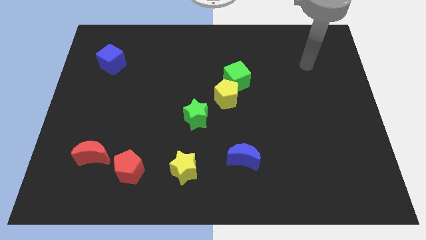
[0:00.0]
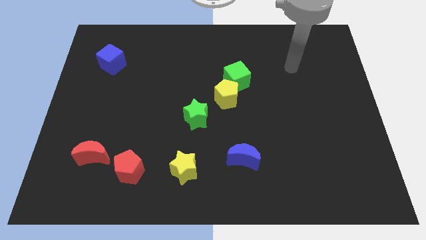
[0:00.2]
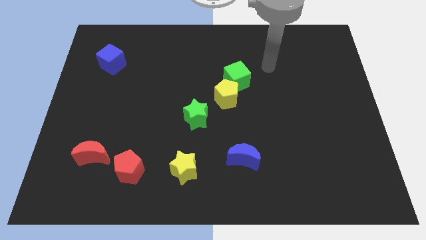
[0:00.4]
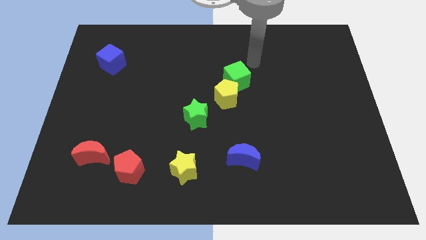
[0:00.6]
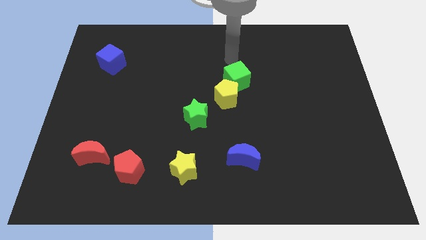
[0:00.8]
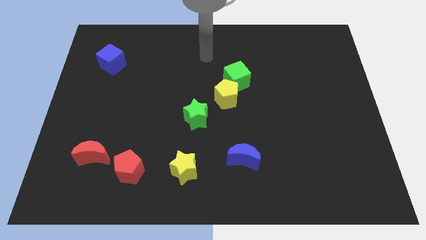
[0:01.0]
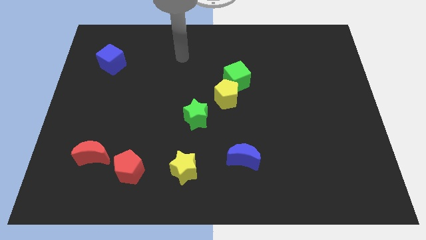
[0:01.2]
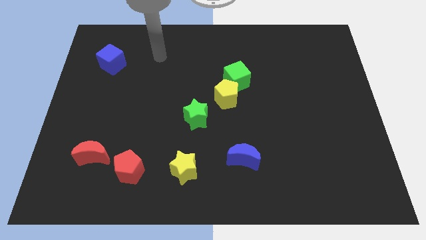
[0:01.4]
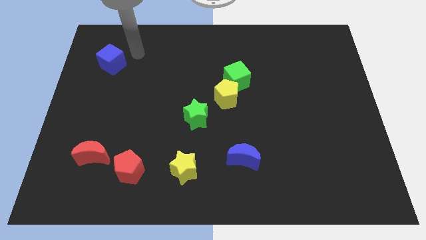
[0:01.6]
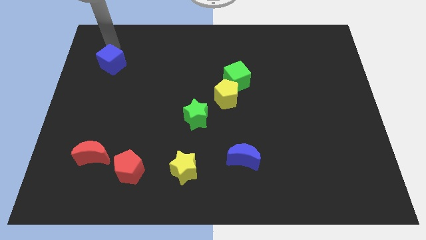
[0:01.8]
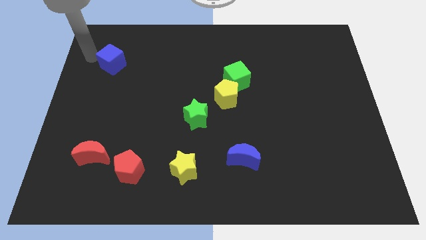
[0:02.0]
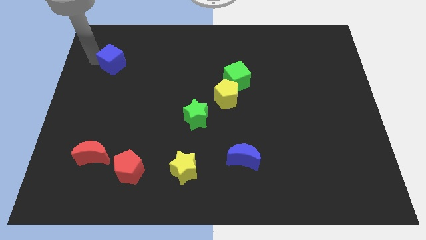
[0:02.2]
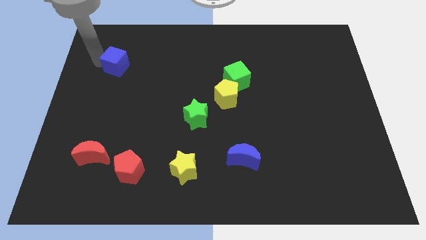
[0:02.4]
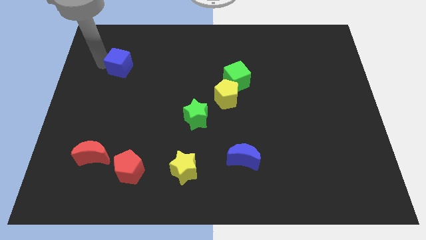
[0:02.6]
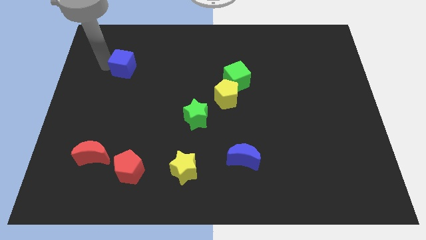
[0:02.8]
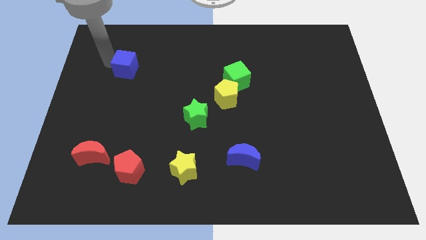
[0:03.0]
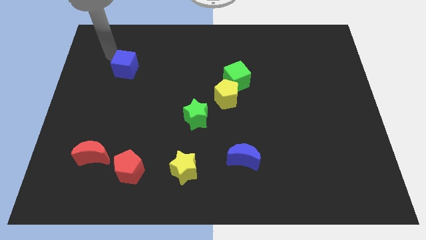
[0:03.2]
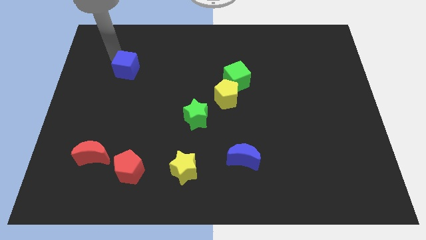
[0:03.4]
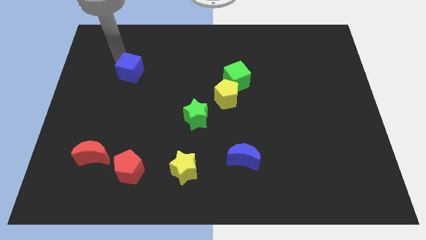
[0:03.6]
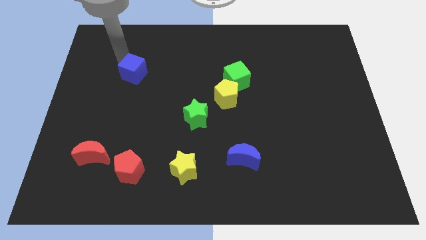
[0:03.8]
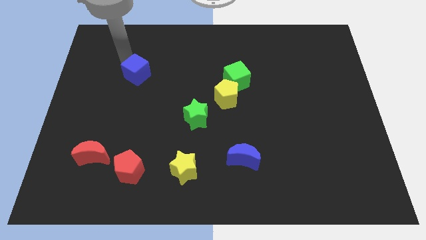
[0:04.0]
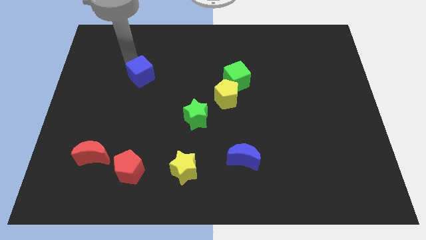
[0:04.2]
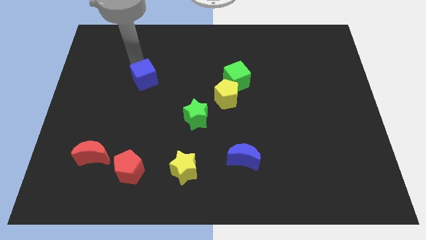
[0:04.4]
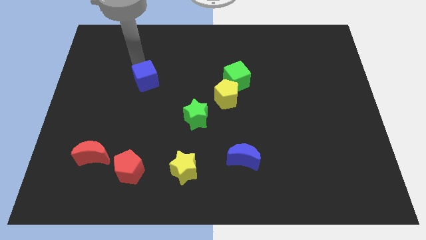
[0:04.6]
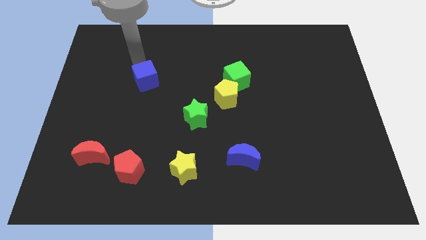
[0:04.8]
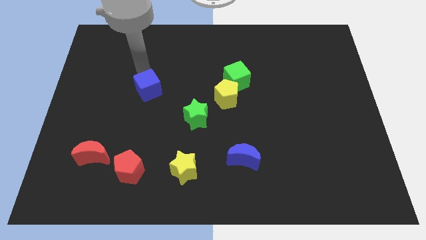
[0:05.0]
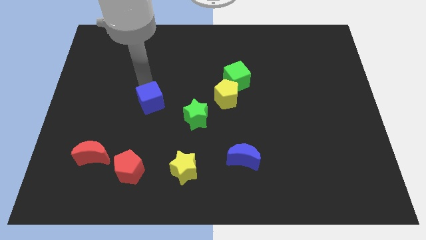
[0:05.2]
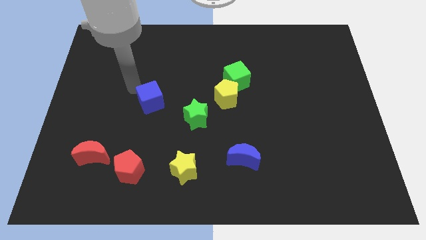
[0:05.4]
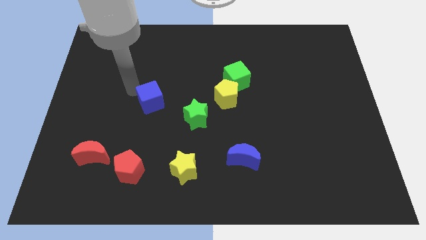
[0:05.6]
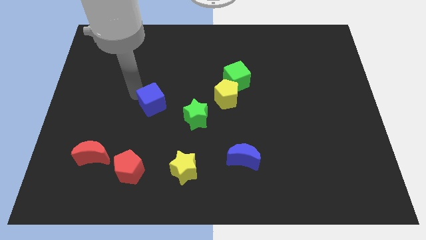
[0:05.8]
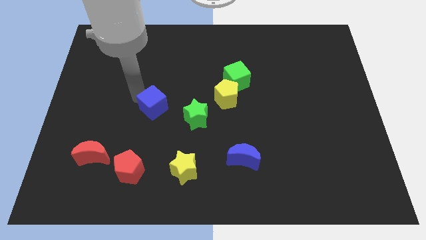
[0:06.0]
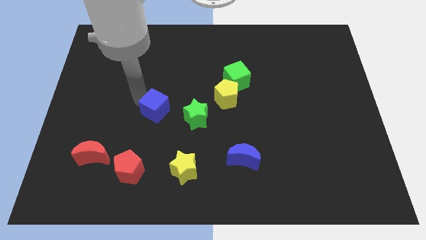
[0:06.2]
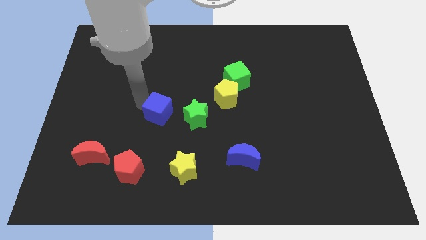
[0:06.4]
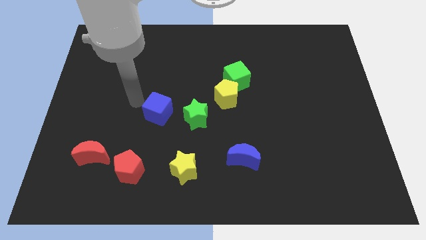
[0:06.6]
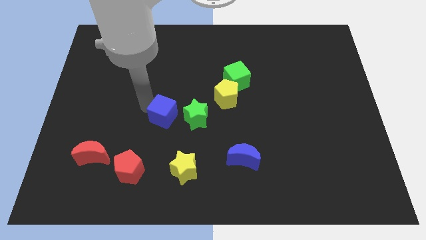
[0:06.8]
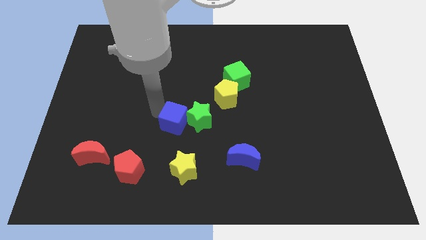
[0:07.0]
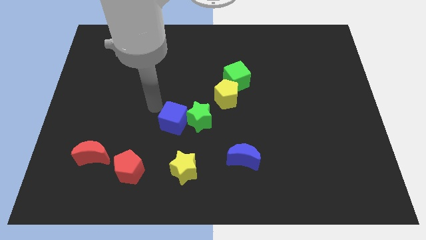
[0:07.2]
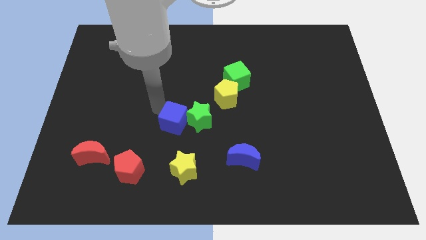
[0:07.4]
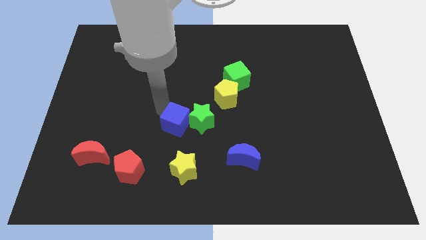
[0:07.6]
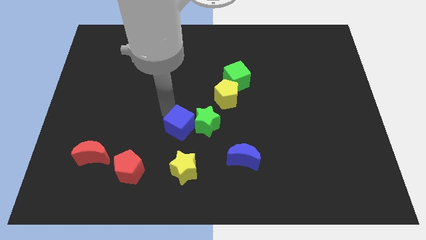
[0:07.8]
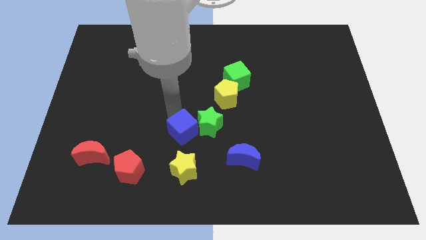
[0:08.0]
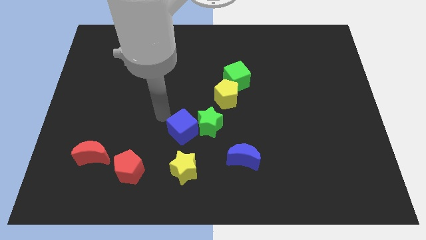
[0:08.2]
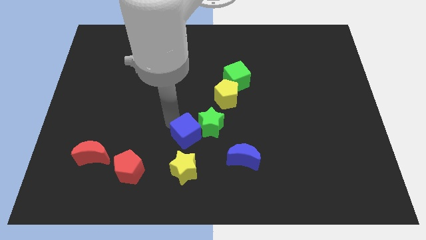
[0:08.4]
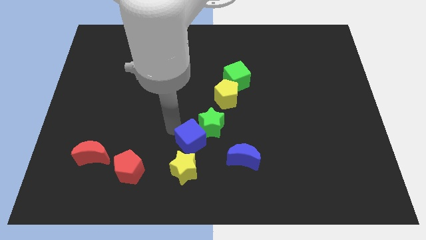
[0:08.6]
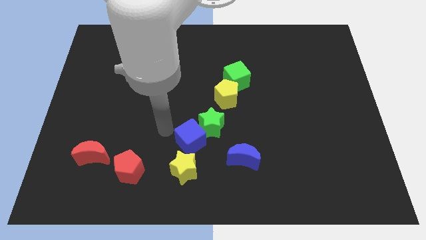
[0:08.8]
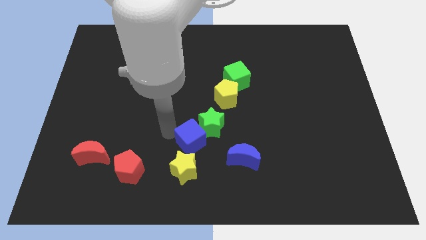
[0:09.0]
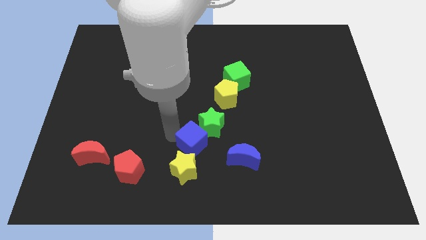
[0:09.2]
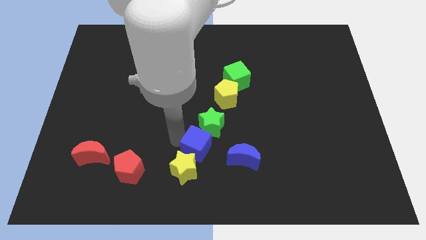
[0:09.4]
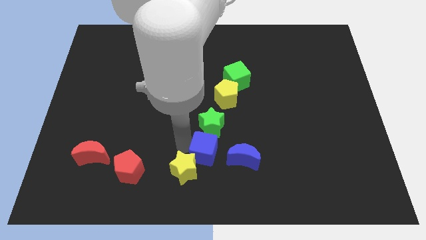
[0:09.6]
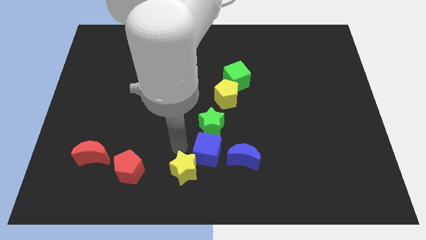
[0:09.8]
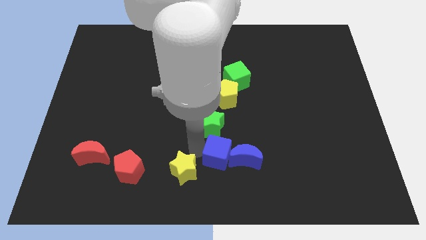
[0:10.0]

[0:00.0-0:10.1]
slide the blue cube next to the blue moon

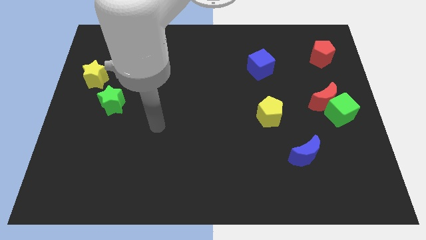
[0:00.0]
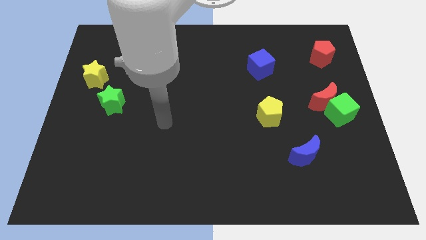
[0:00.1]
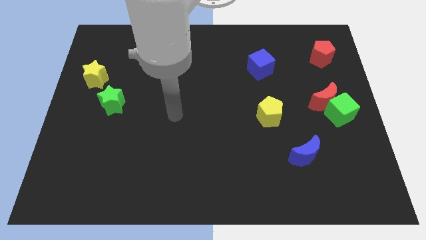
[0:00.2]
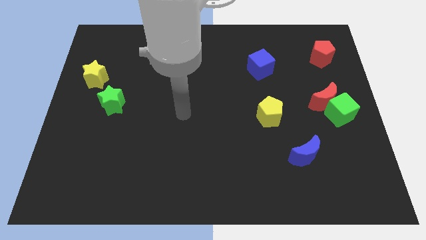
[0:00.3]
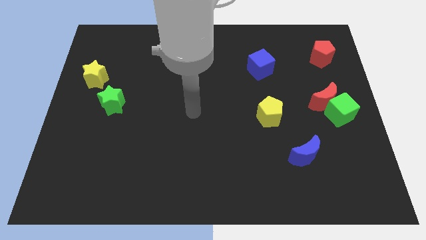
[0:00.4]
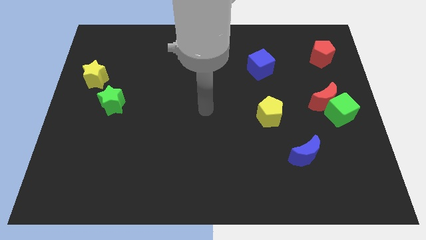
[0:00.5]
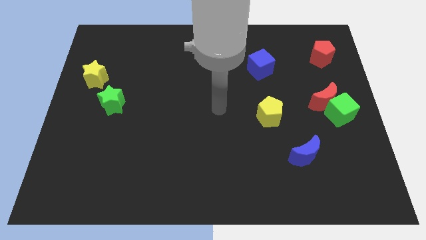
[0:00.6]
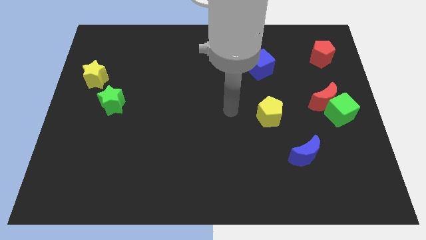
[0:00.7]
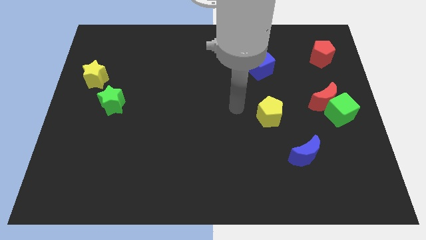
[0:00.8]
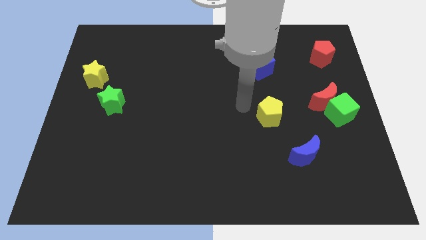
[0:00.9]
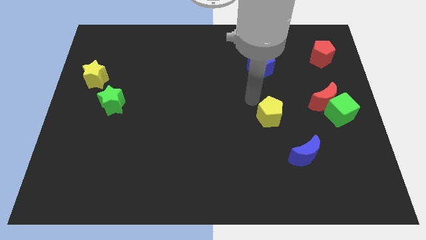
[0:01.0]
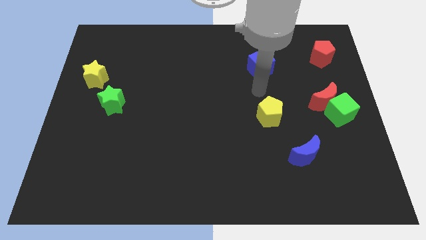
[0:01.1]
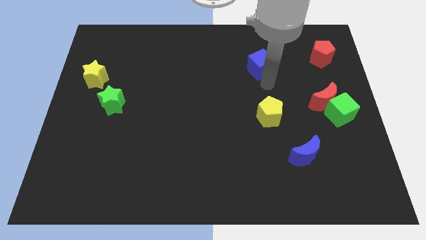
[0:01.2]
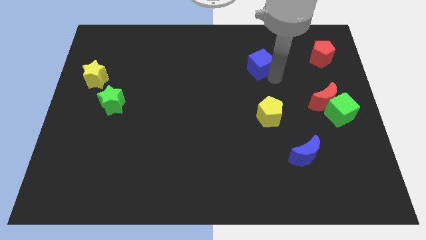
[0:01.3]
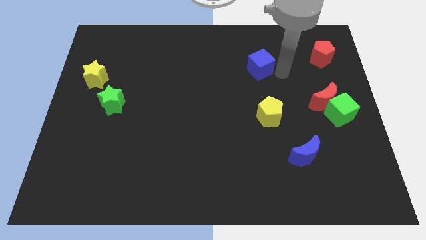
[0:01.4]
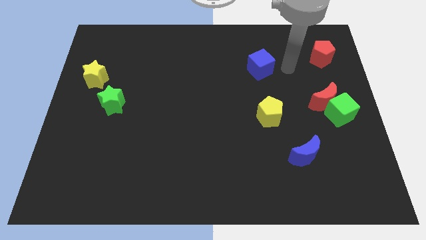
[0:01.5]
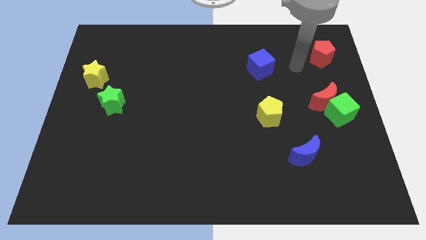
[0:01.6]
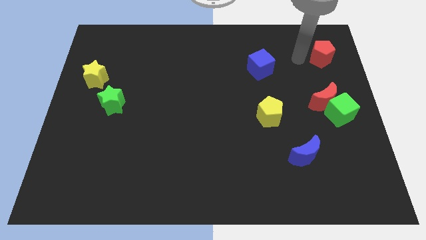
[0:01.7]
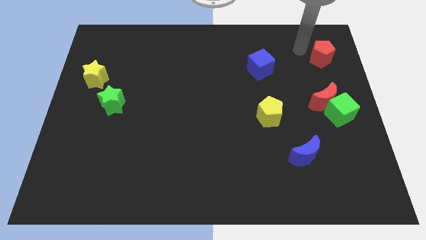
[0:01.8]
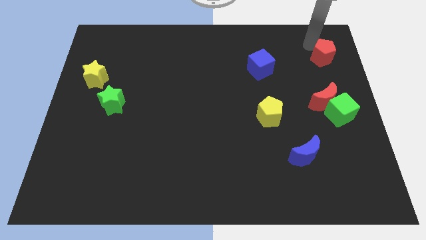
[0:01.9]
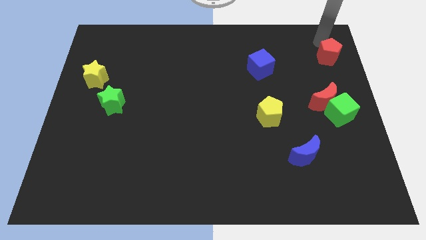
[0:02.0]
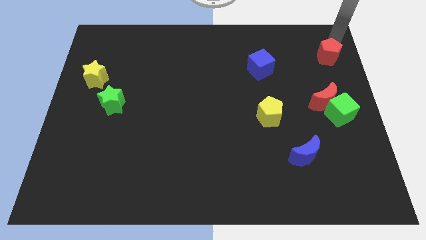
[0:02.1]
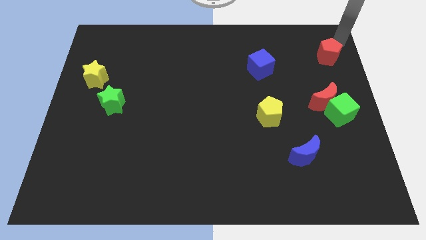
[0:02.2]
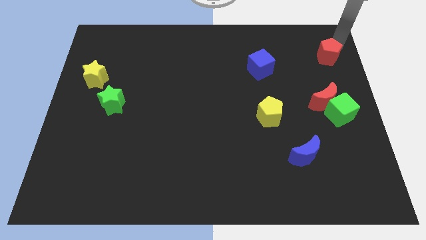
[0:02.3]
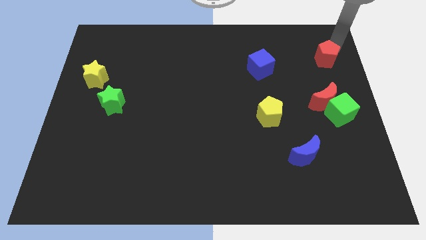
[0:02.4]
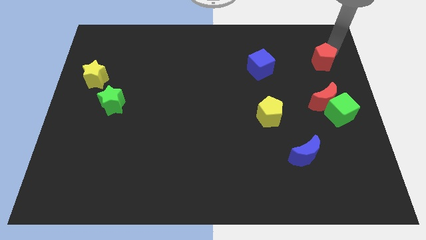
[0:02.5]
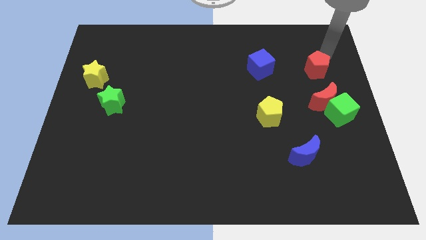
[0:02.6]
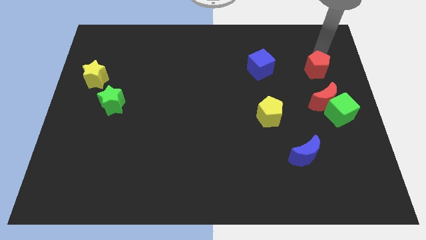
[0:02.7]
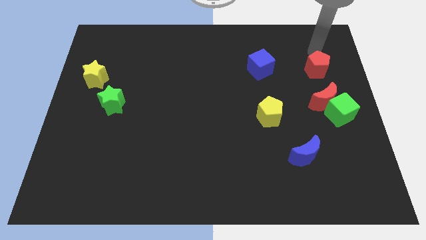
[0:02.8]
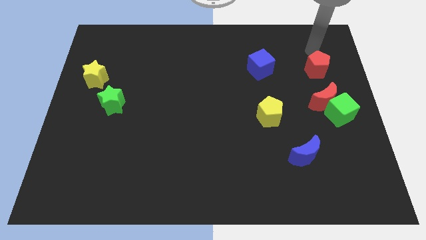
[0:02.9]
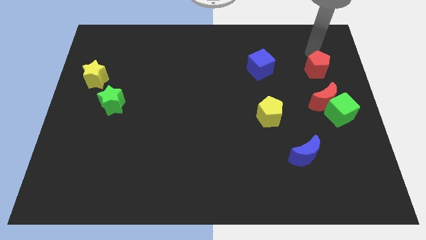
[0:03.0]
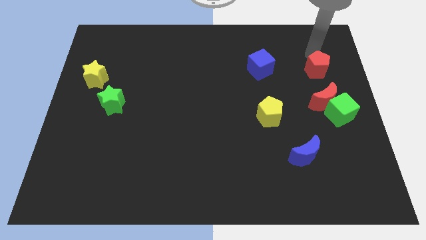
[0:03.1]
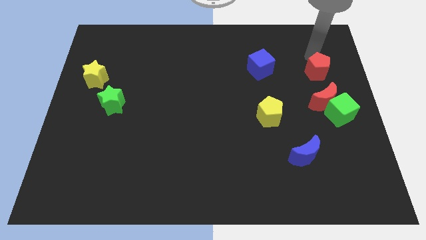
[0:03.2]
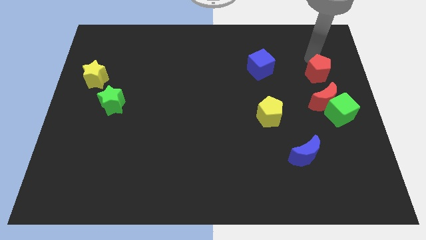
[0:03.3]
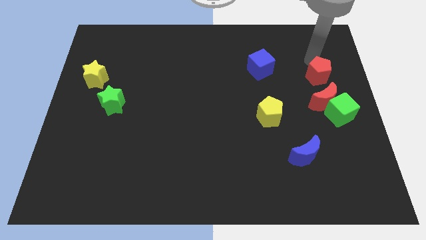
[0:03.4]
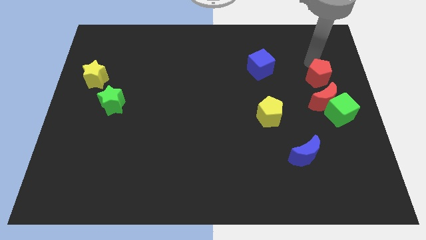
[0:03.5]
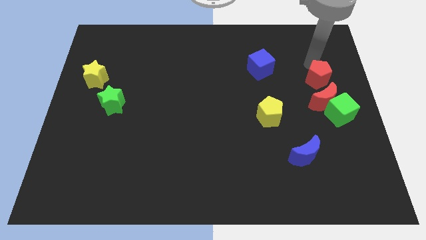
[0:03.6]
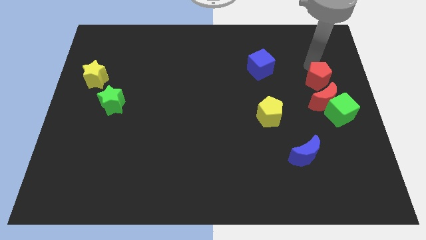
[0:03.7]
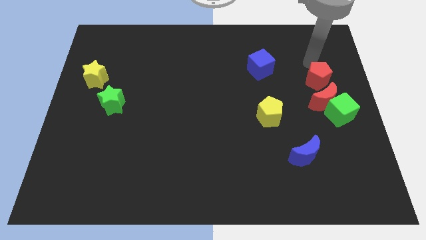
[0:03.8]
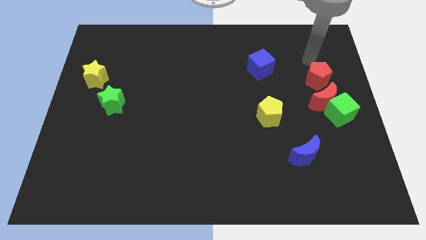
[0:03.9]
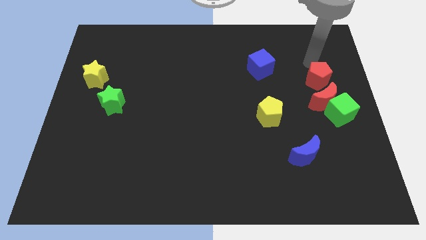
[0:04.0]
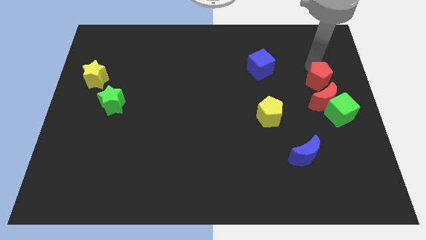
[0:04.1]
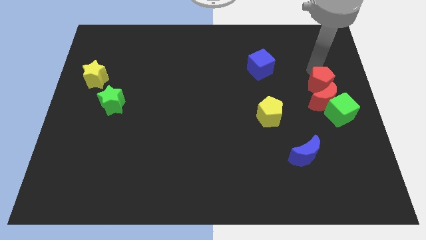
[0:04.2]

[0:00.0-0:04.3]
slide the red pentagon to the red moon
